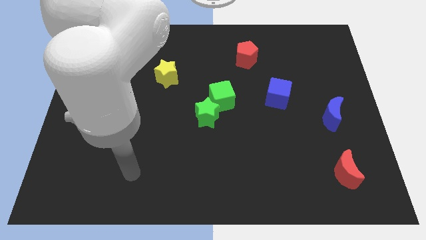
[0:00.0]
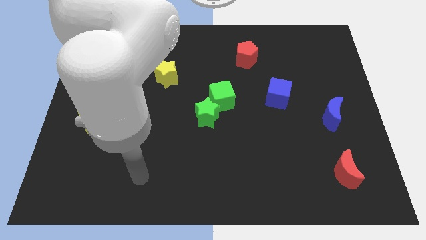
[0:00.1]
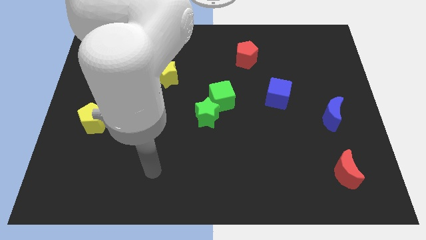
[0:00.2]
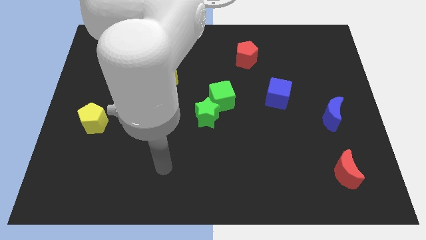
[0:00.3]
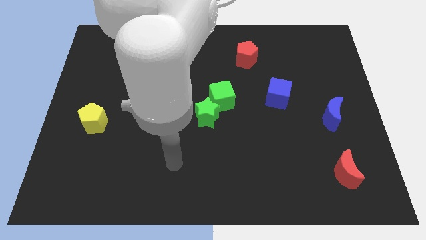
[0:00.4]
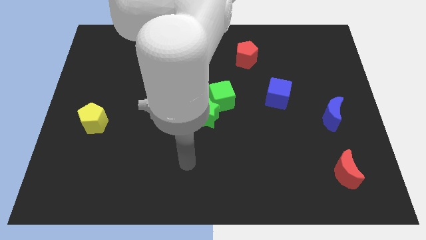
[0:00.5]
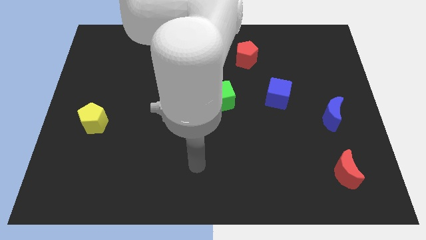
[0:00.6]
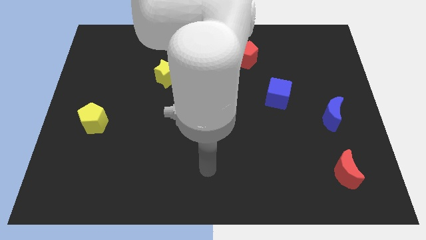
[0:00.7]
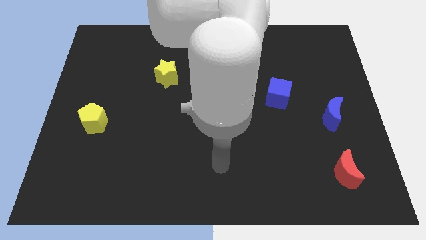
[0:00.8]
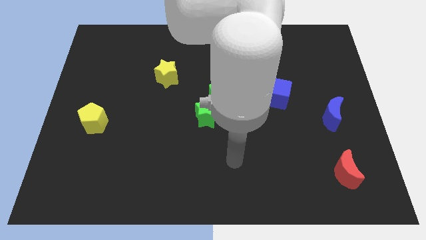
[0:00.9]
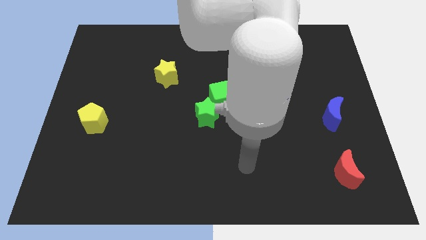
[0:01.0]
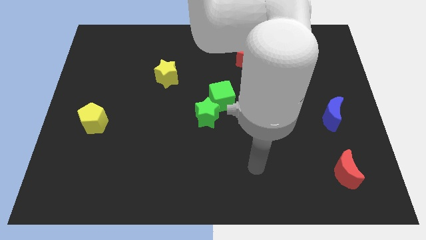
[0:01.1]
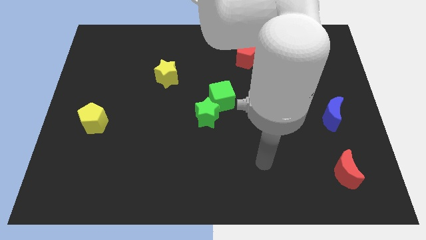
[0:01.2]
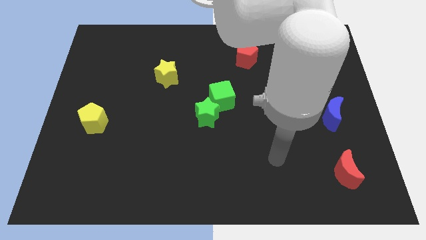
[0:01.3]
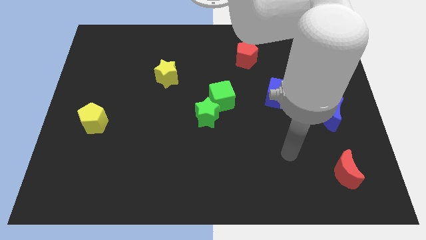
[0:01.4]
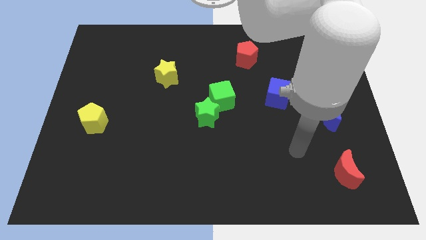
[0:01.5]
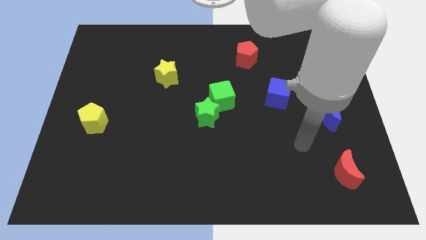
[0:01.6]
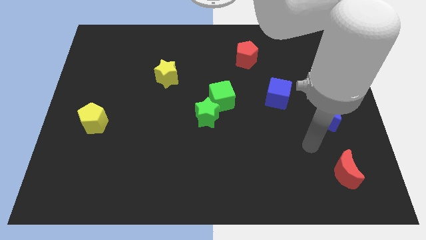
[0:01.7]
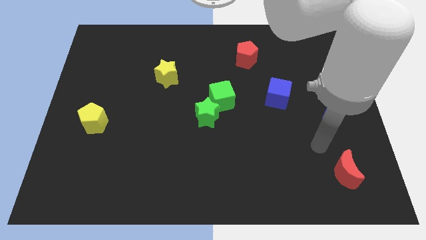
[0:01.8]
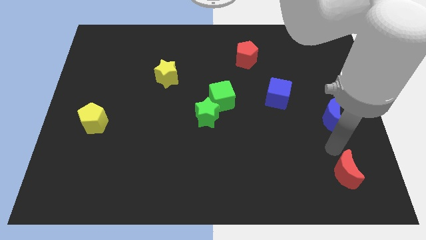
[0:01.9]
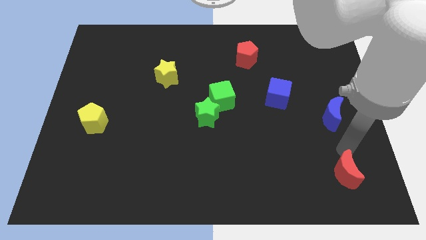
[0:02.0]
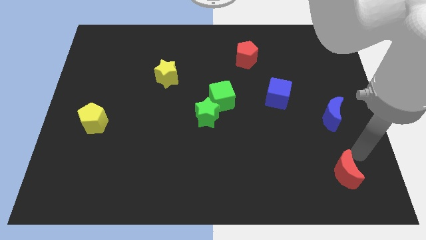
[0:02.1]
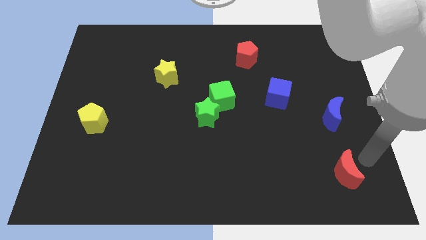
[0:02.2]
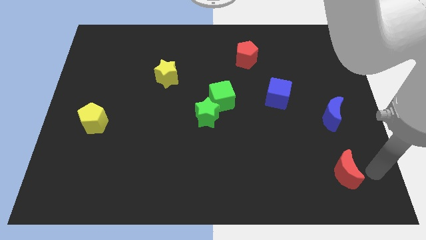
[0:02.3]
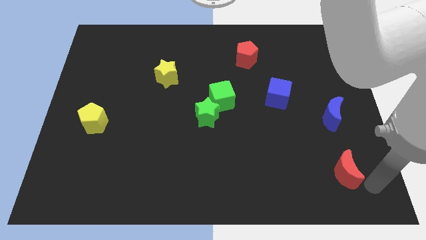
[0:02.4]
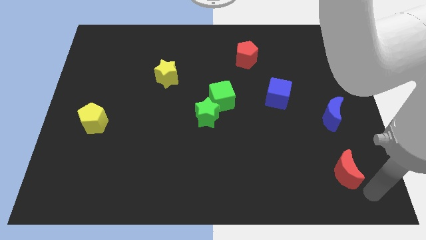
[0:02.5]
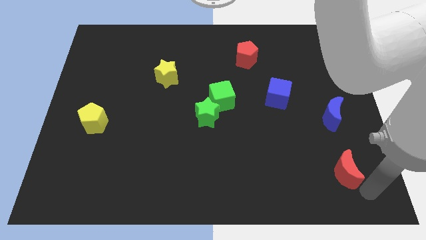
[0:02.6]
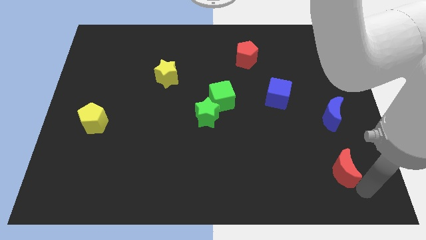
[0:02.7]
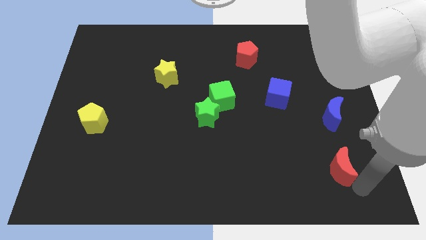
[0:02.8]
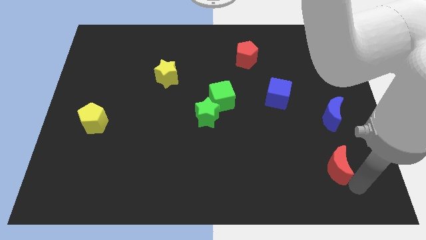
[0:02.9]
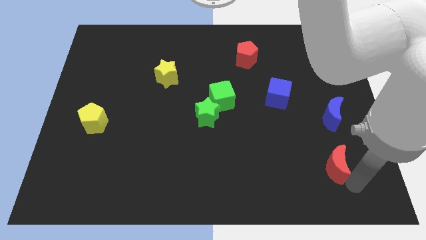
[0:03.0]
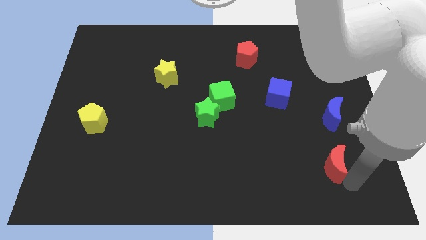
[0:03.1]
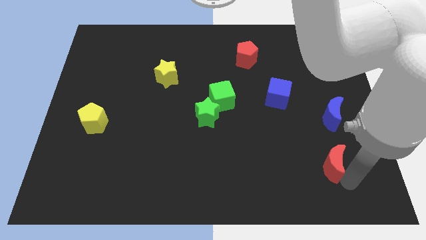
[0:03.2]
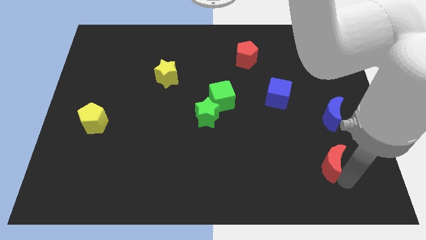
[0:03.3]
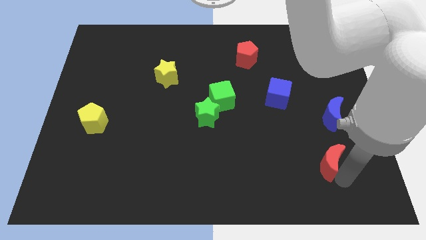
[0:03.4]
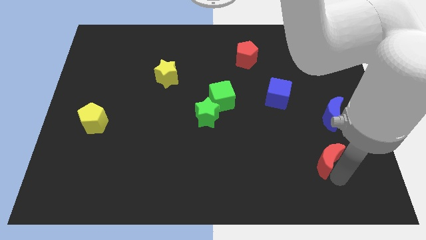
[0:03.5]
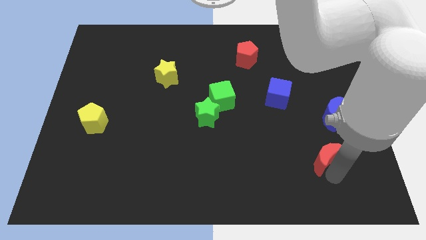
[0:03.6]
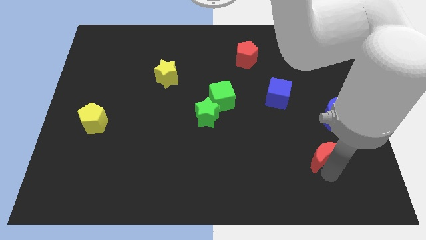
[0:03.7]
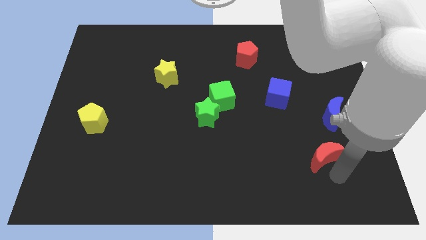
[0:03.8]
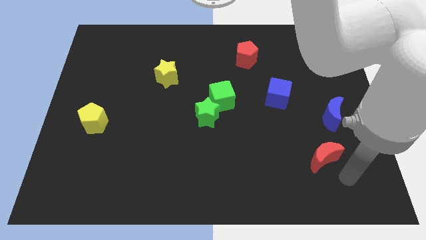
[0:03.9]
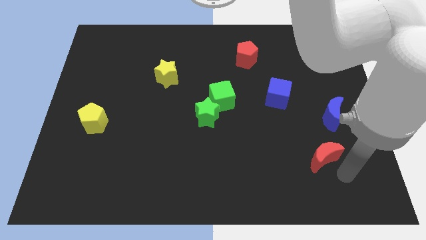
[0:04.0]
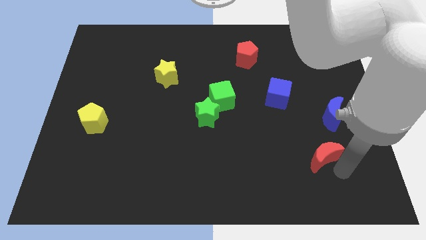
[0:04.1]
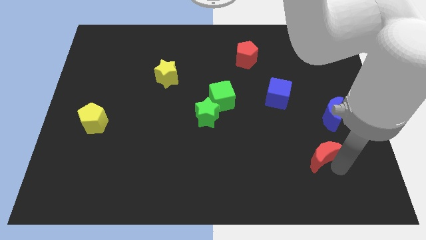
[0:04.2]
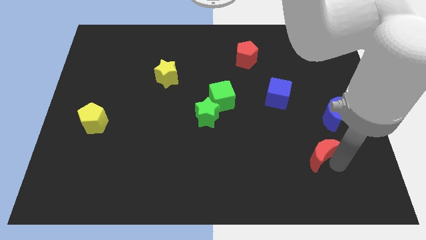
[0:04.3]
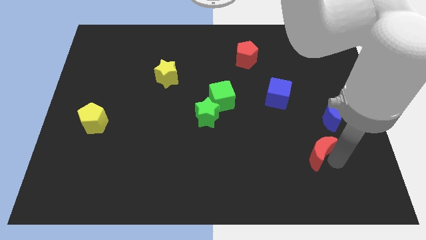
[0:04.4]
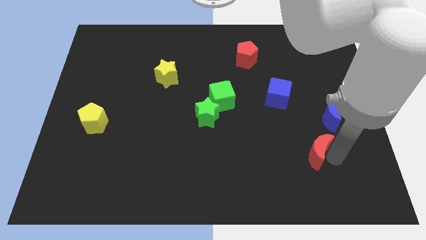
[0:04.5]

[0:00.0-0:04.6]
slightly move the red moon up and to the left diagonally

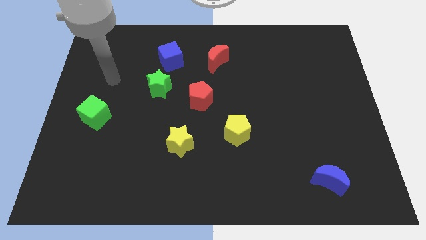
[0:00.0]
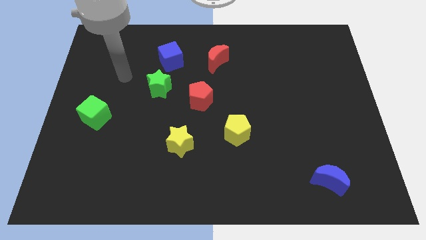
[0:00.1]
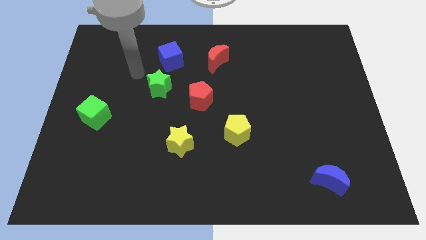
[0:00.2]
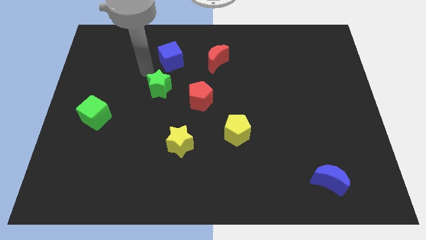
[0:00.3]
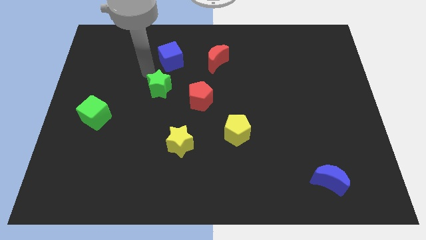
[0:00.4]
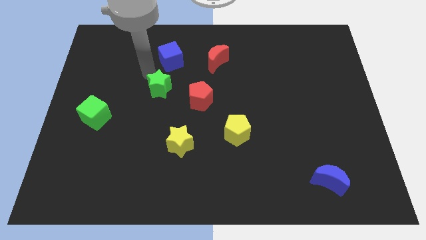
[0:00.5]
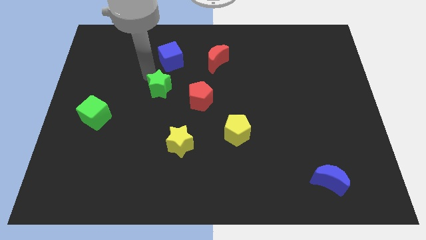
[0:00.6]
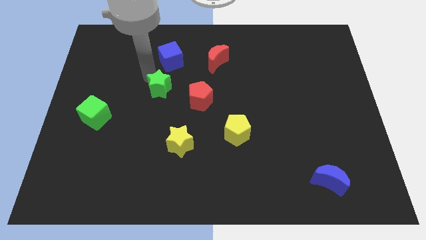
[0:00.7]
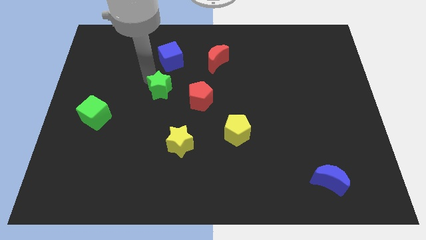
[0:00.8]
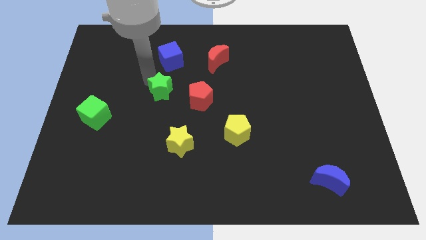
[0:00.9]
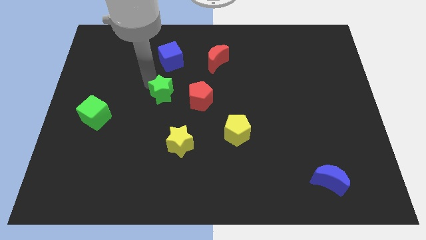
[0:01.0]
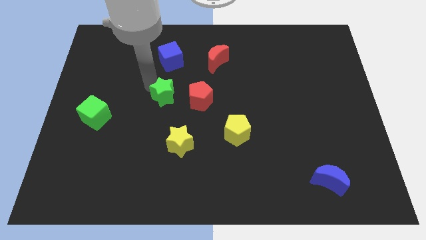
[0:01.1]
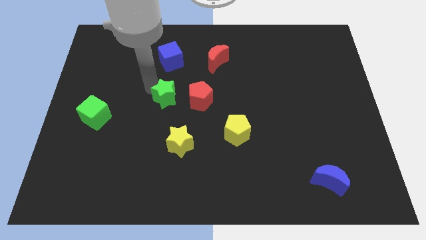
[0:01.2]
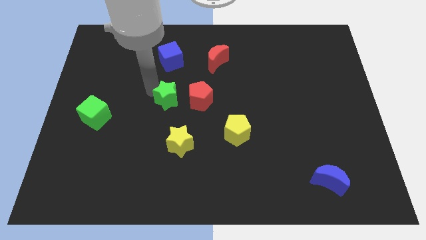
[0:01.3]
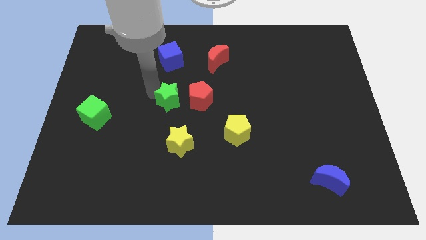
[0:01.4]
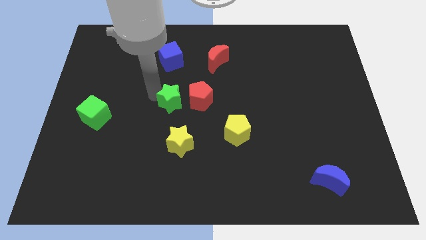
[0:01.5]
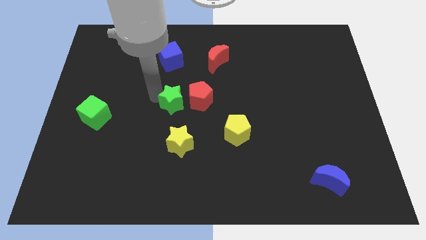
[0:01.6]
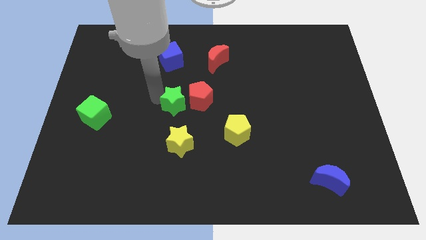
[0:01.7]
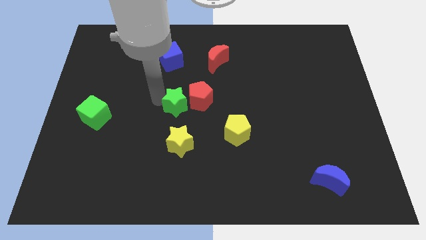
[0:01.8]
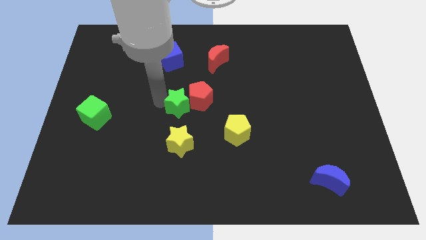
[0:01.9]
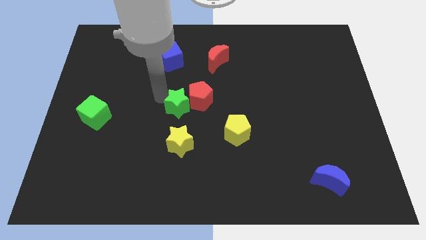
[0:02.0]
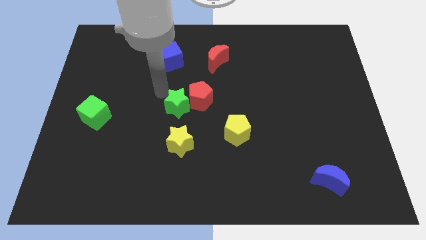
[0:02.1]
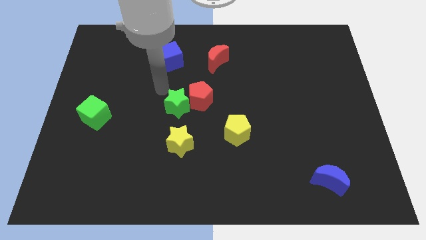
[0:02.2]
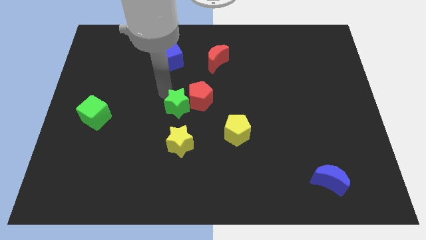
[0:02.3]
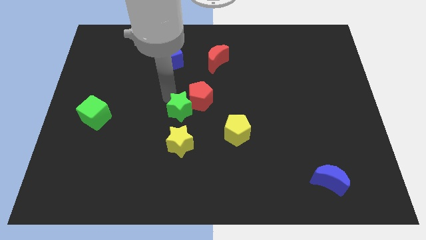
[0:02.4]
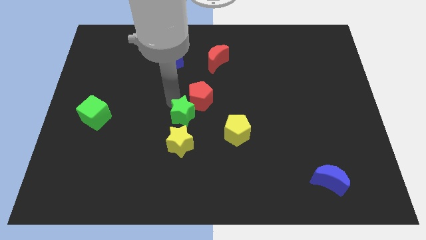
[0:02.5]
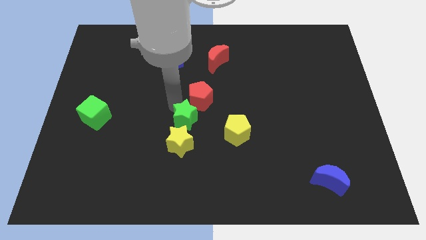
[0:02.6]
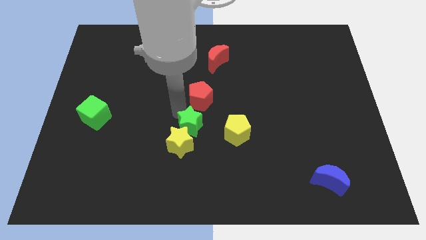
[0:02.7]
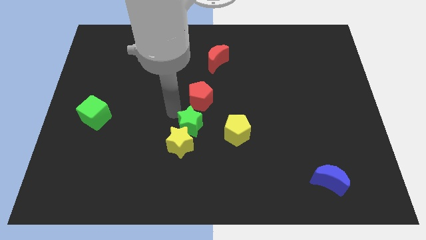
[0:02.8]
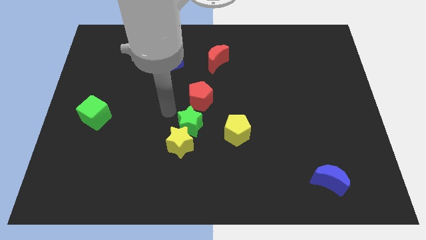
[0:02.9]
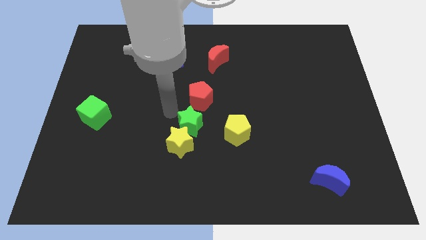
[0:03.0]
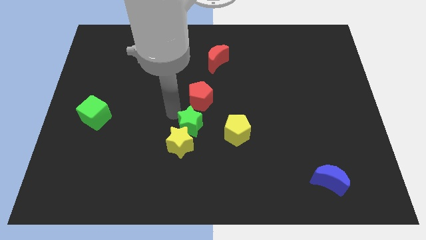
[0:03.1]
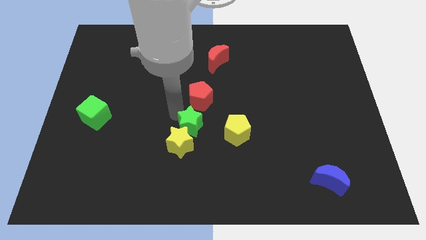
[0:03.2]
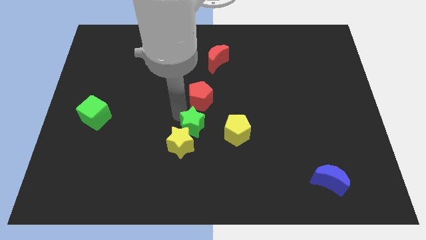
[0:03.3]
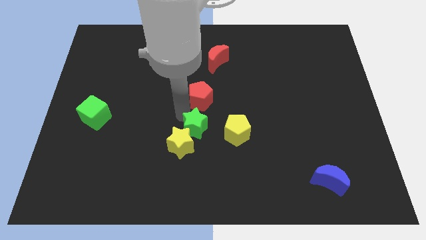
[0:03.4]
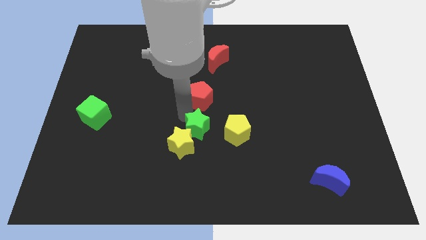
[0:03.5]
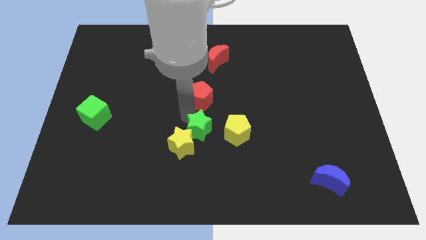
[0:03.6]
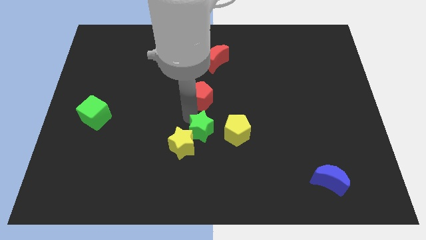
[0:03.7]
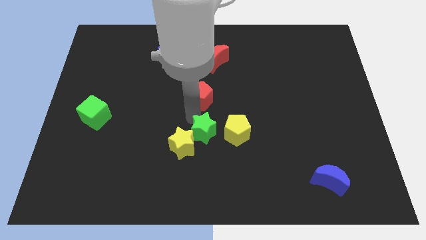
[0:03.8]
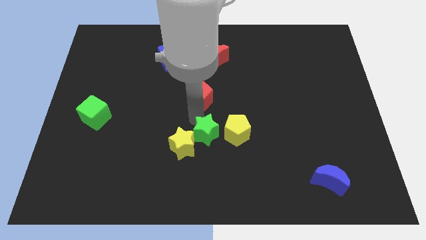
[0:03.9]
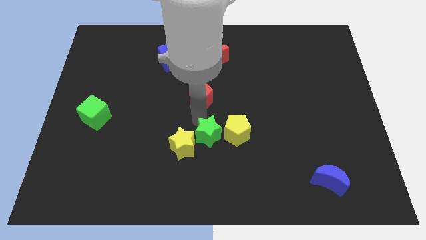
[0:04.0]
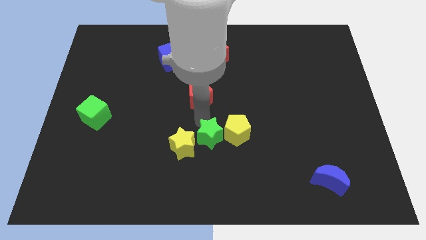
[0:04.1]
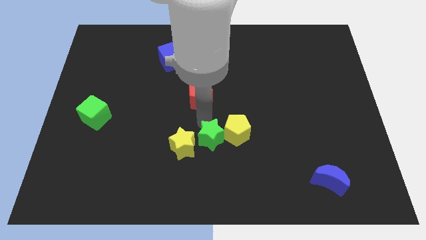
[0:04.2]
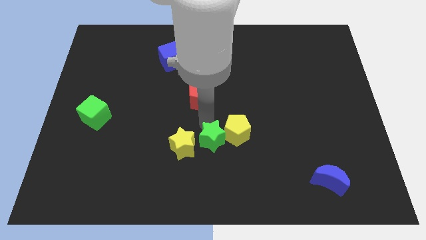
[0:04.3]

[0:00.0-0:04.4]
slide the green star down and then right
